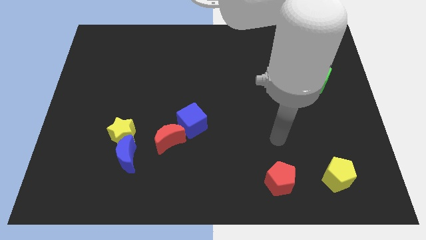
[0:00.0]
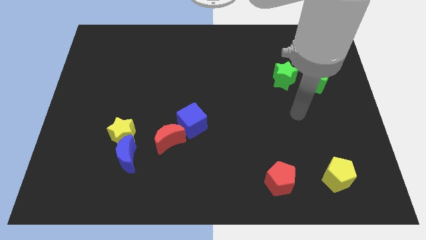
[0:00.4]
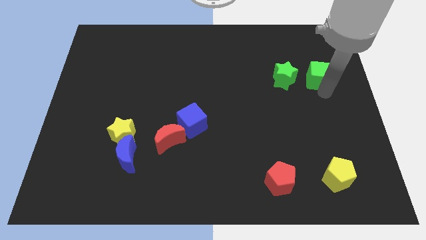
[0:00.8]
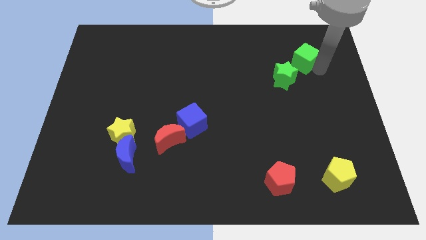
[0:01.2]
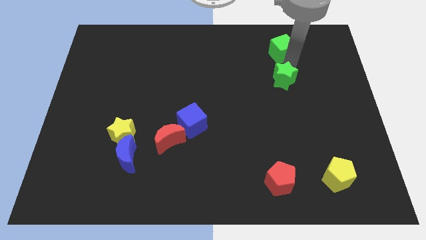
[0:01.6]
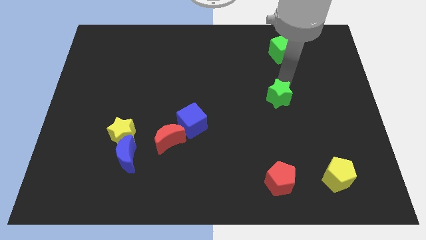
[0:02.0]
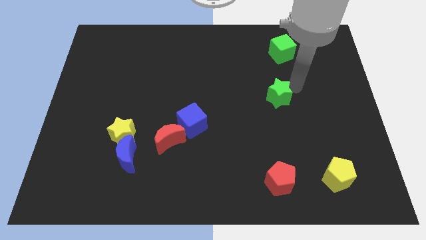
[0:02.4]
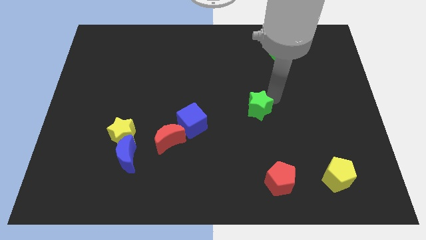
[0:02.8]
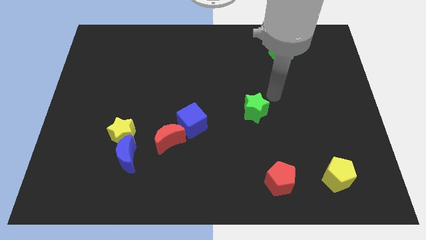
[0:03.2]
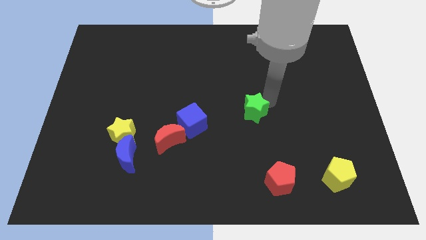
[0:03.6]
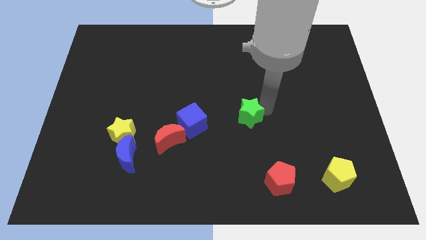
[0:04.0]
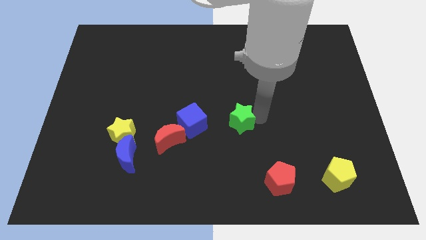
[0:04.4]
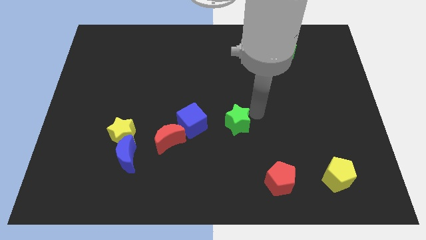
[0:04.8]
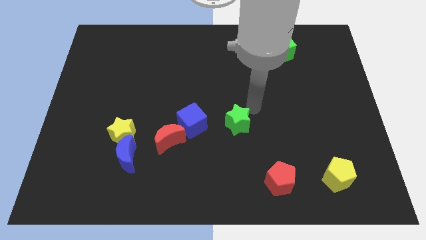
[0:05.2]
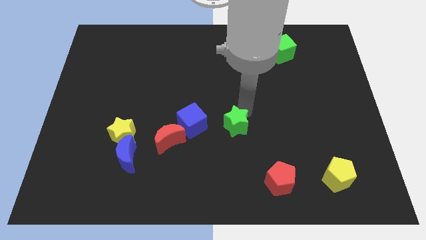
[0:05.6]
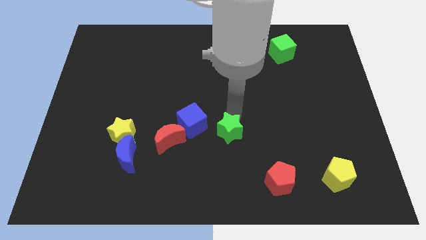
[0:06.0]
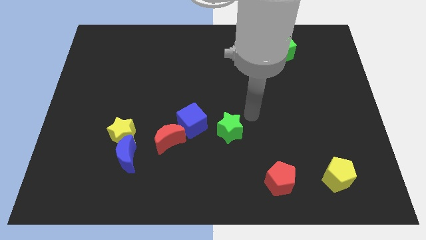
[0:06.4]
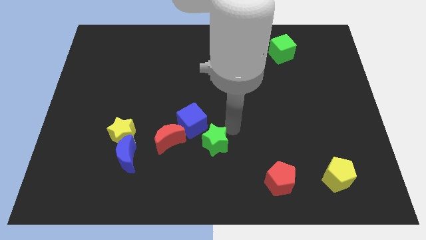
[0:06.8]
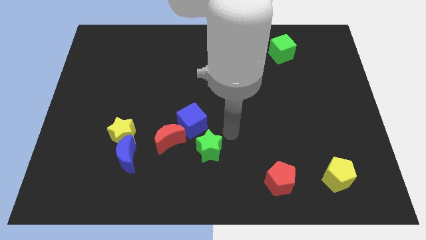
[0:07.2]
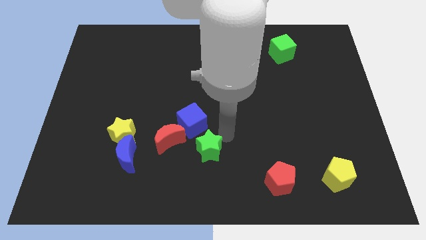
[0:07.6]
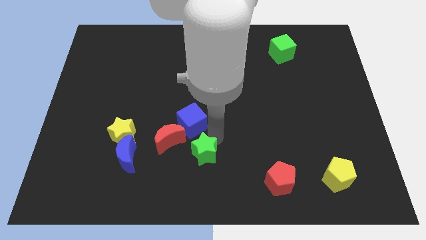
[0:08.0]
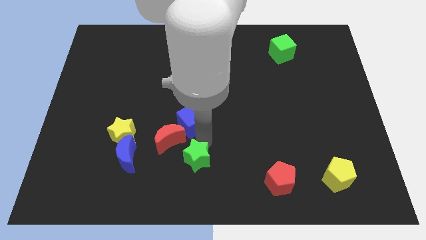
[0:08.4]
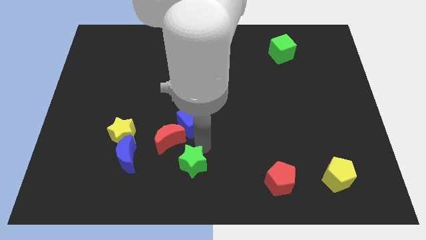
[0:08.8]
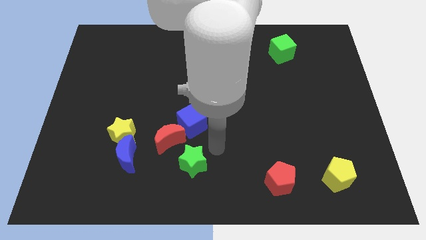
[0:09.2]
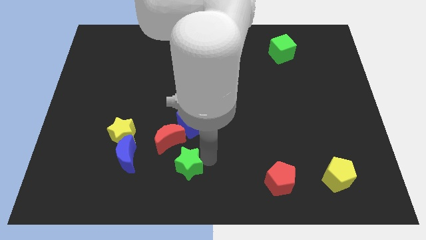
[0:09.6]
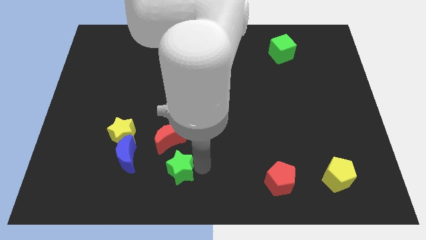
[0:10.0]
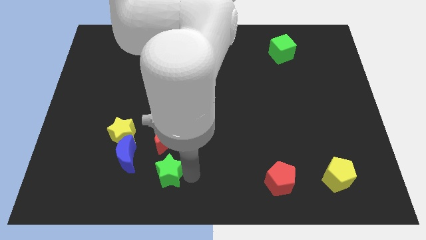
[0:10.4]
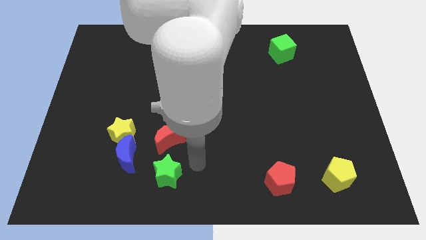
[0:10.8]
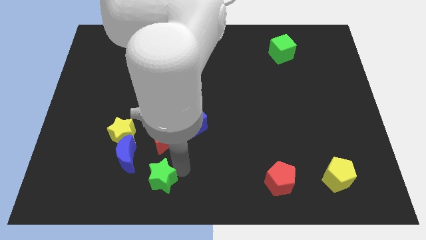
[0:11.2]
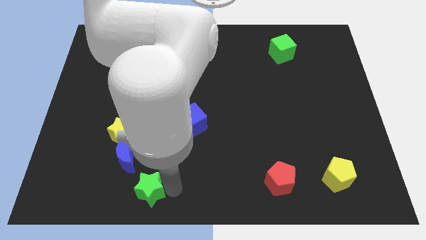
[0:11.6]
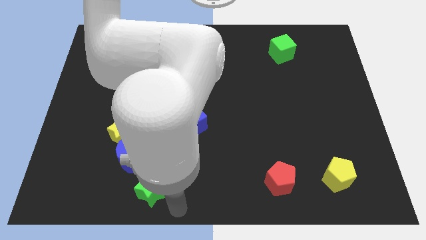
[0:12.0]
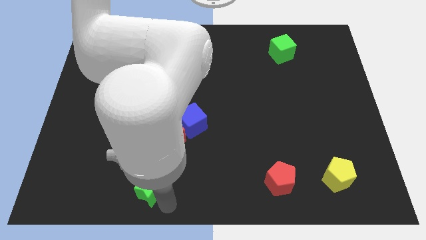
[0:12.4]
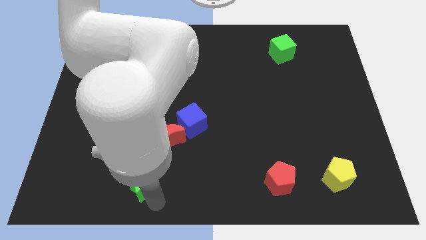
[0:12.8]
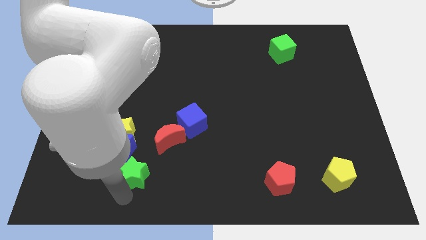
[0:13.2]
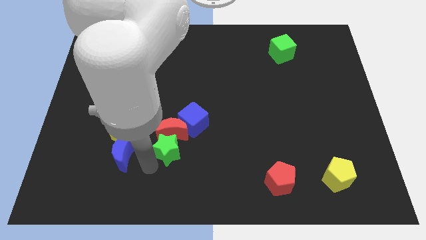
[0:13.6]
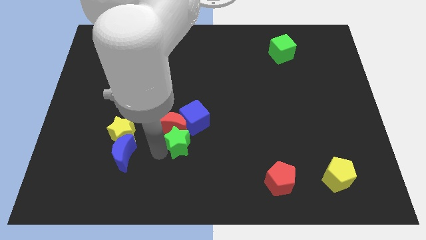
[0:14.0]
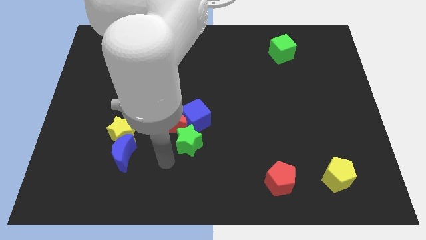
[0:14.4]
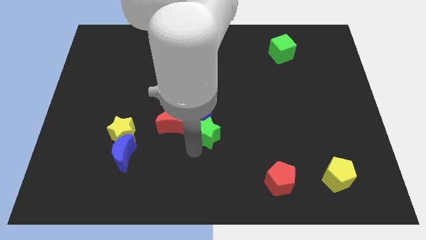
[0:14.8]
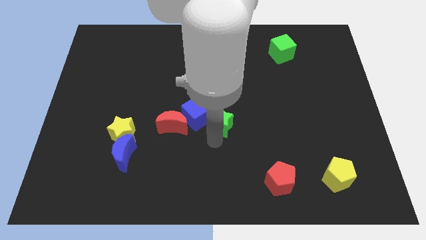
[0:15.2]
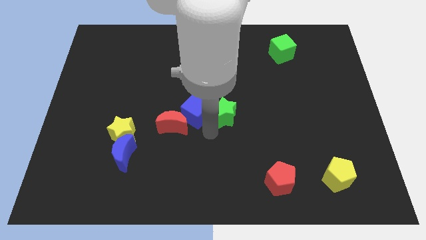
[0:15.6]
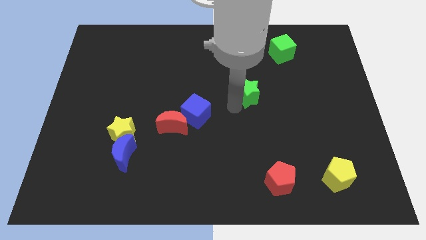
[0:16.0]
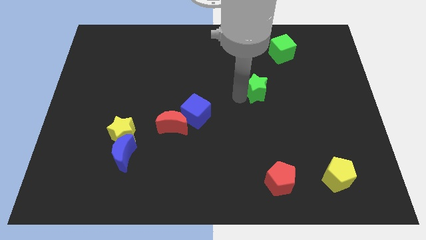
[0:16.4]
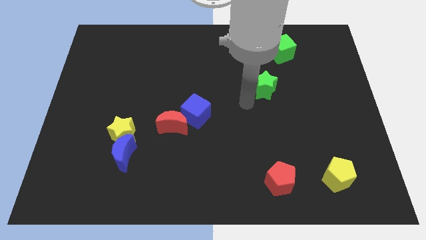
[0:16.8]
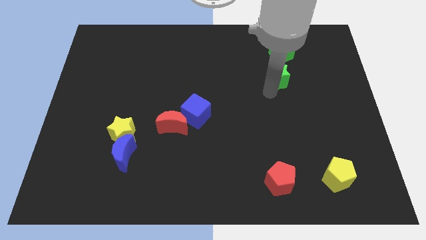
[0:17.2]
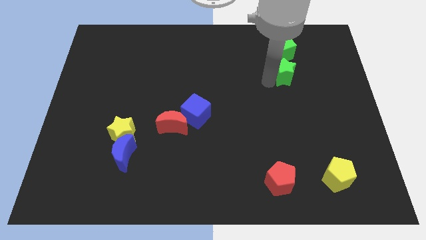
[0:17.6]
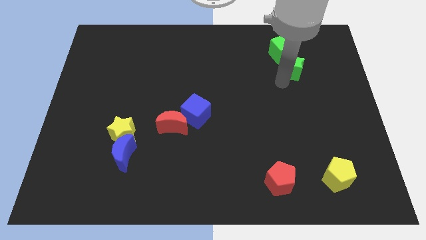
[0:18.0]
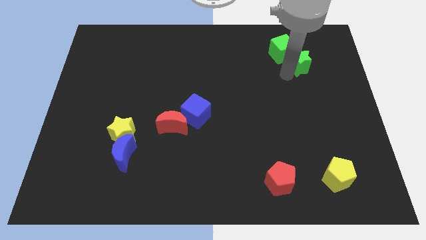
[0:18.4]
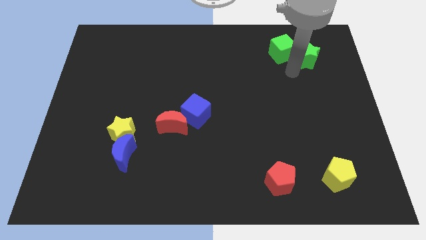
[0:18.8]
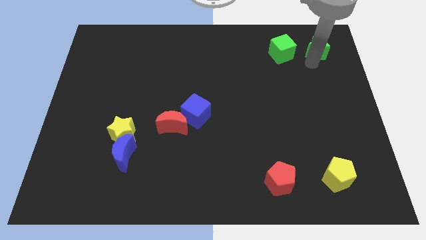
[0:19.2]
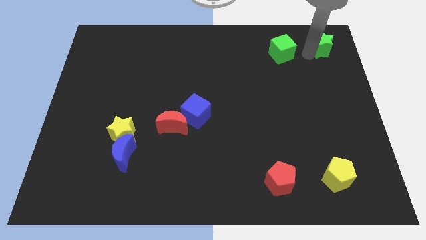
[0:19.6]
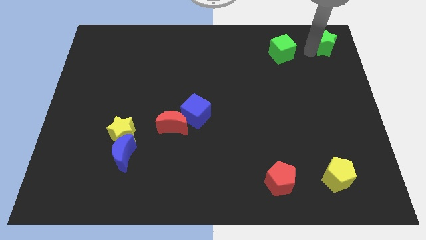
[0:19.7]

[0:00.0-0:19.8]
put the green star to the upper right corner

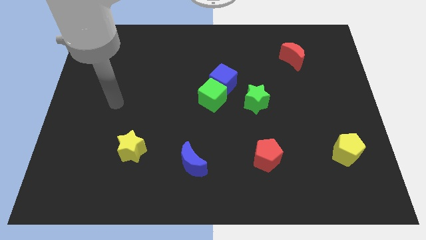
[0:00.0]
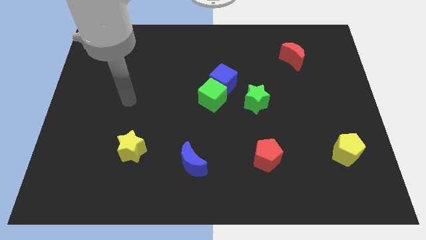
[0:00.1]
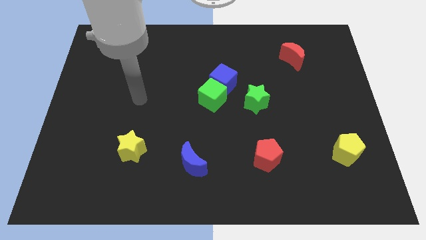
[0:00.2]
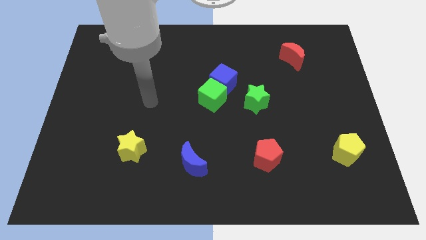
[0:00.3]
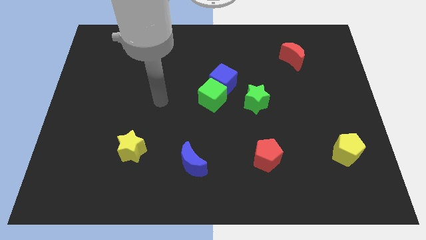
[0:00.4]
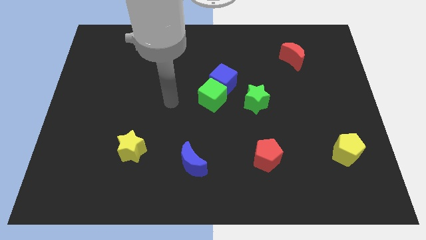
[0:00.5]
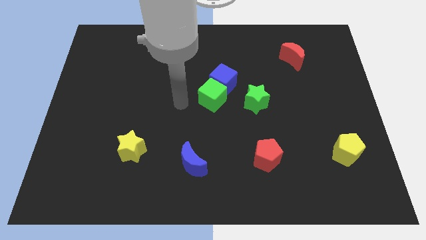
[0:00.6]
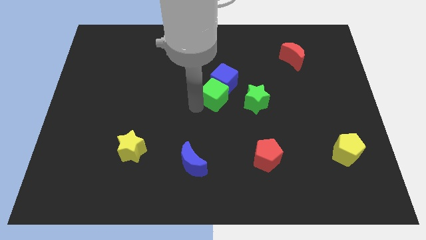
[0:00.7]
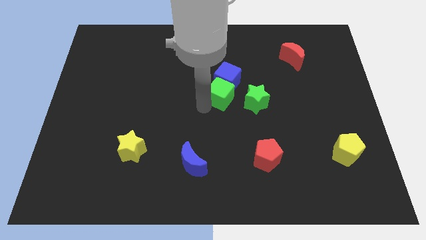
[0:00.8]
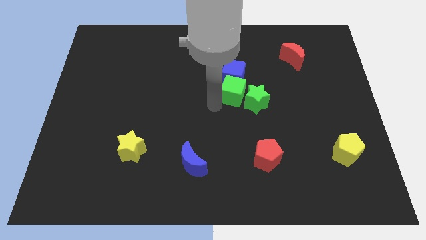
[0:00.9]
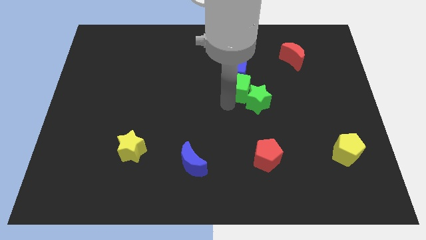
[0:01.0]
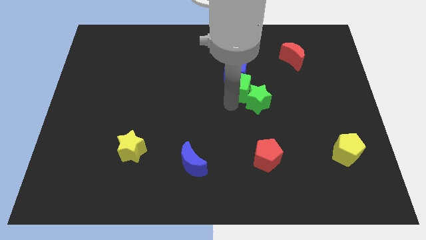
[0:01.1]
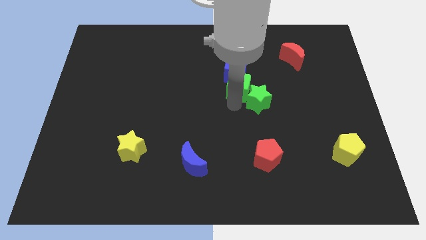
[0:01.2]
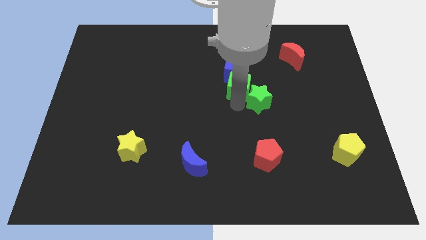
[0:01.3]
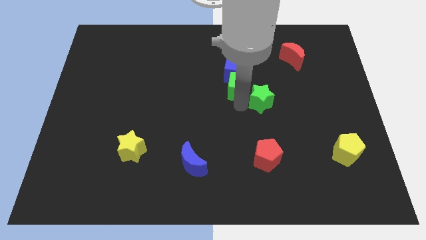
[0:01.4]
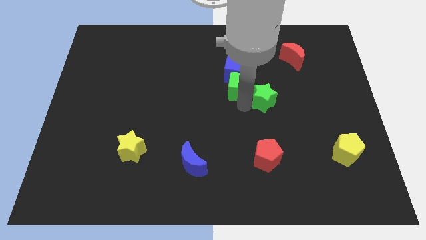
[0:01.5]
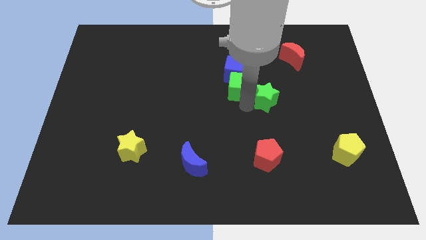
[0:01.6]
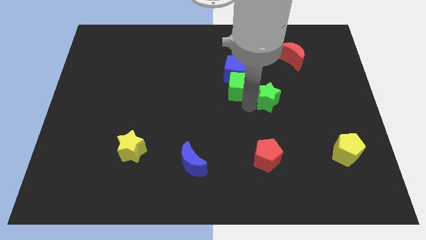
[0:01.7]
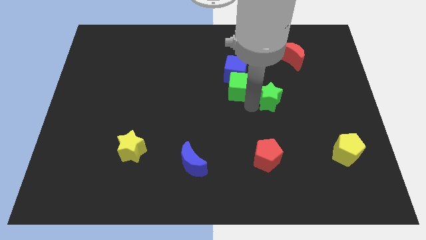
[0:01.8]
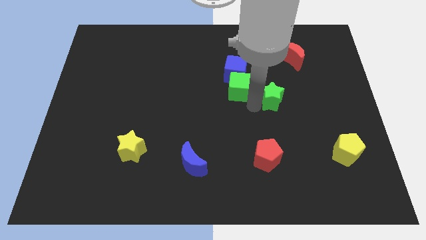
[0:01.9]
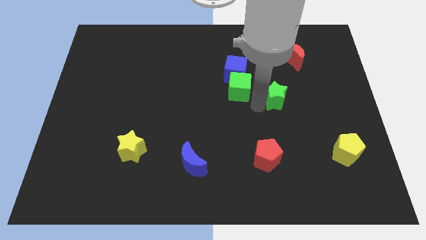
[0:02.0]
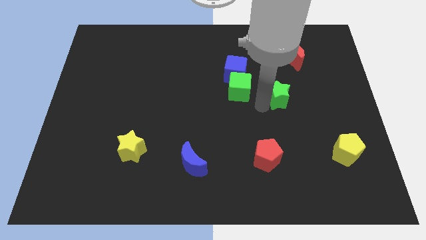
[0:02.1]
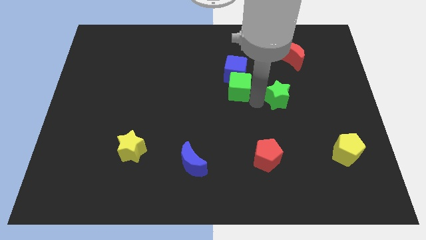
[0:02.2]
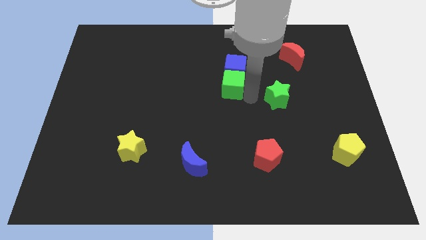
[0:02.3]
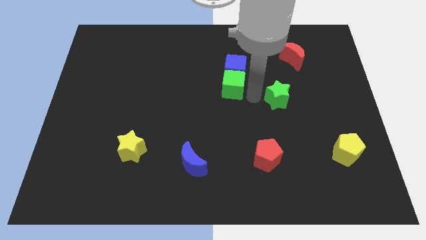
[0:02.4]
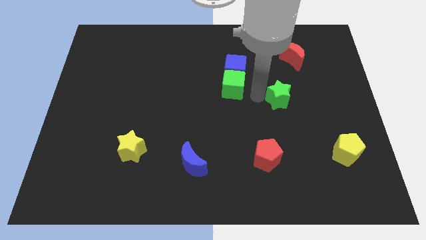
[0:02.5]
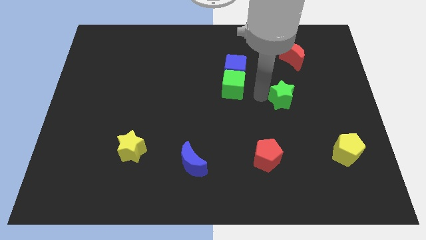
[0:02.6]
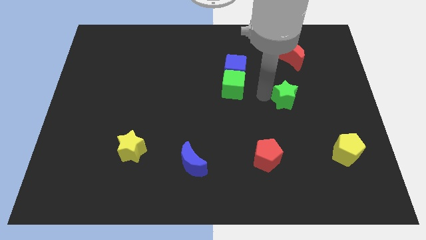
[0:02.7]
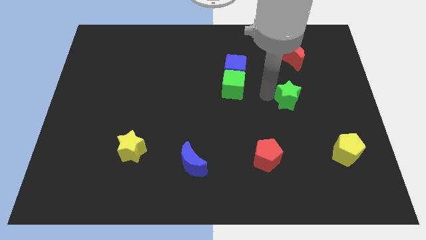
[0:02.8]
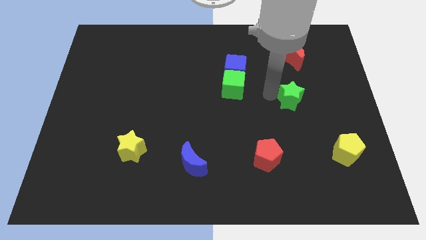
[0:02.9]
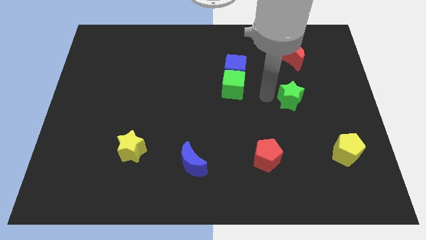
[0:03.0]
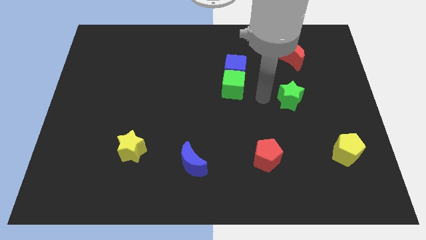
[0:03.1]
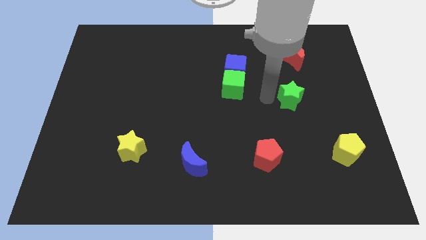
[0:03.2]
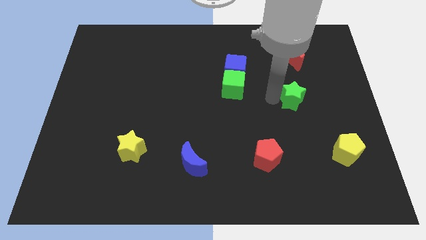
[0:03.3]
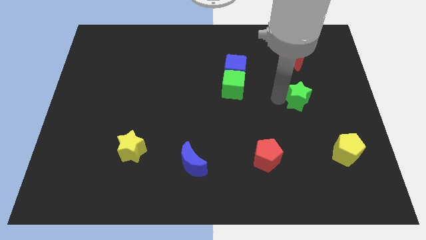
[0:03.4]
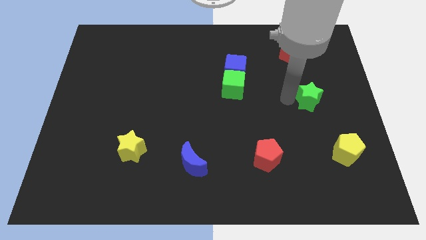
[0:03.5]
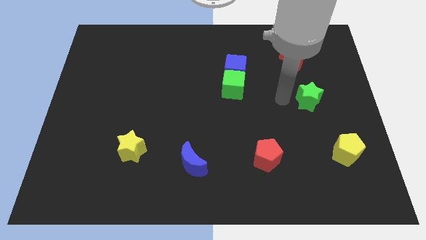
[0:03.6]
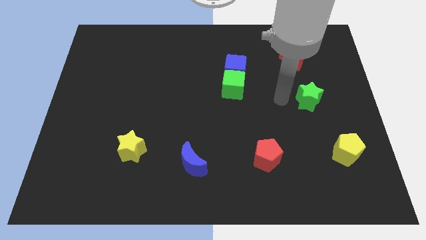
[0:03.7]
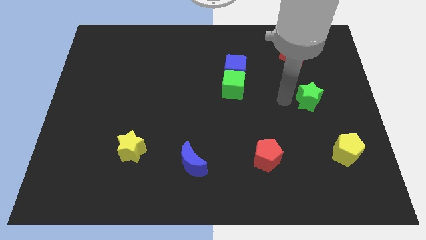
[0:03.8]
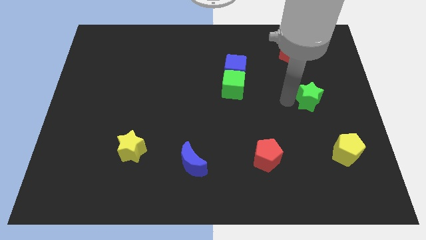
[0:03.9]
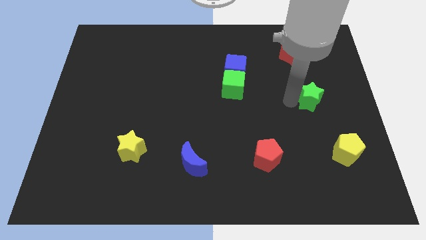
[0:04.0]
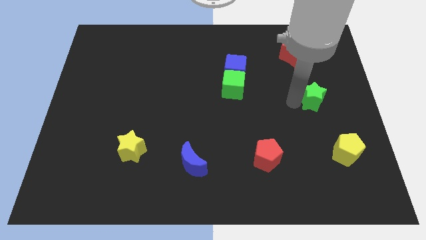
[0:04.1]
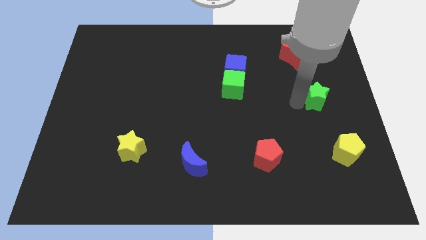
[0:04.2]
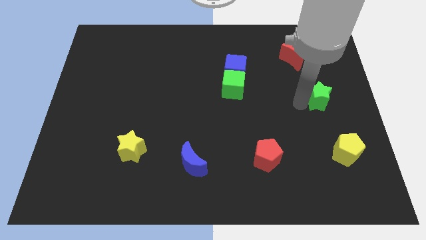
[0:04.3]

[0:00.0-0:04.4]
push the green star to the right side of the board
